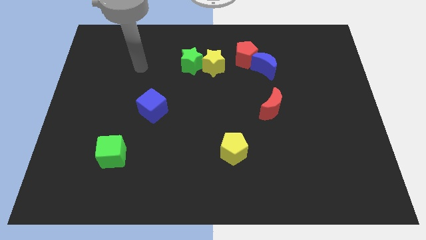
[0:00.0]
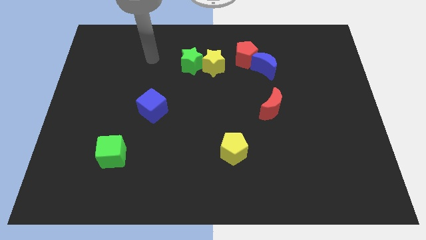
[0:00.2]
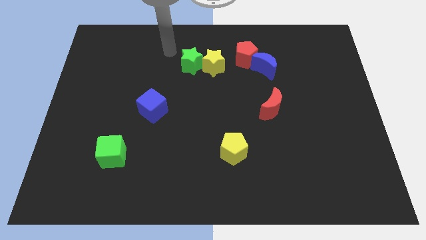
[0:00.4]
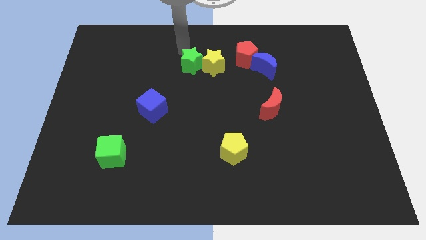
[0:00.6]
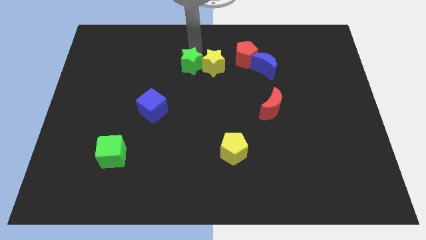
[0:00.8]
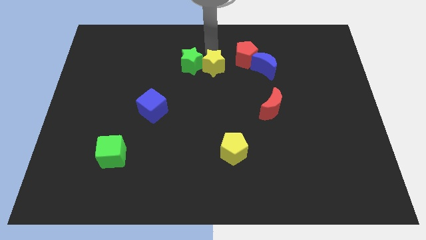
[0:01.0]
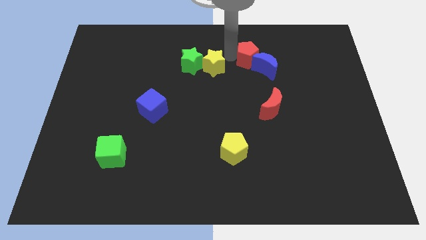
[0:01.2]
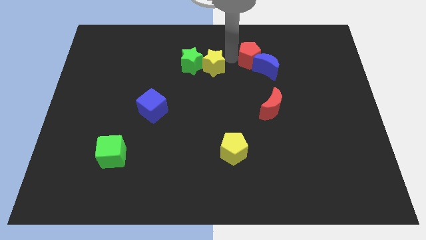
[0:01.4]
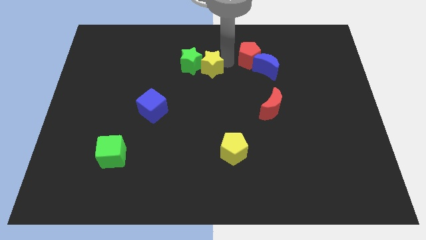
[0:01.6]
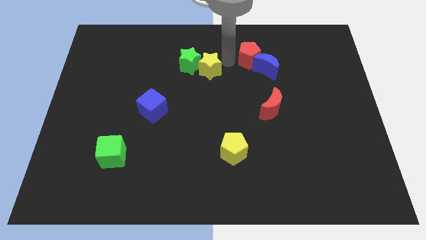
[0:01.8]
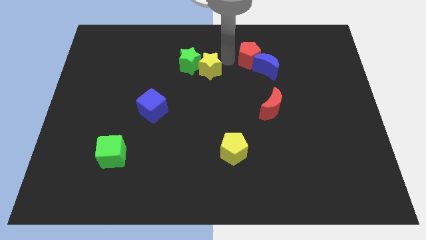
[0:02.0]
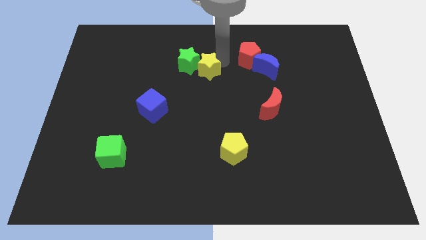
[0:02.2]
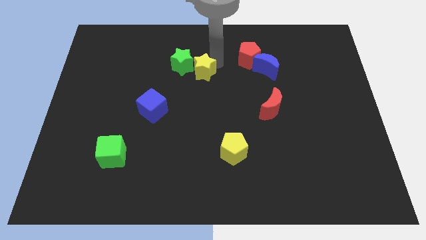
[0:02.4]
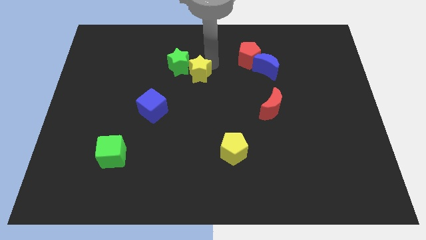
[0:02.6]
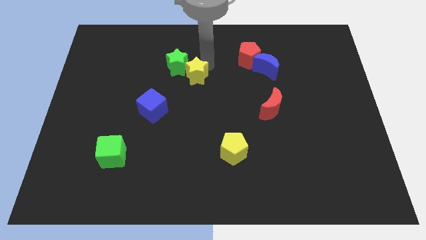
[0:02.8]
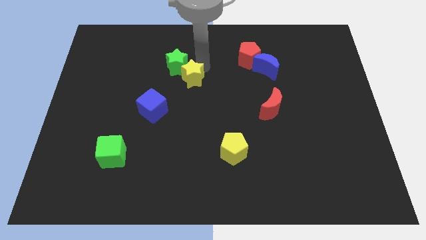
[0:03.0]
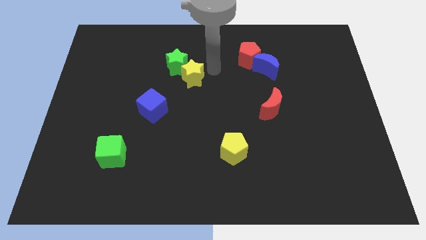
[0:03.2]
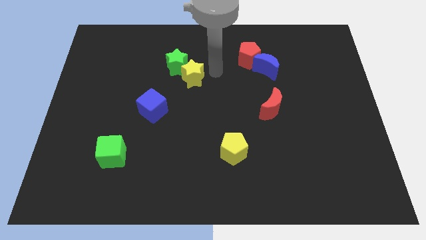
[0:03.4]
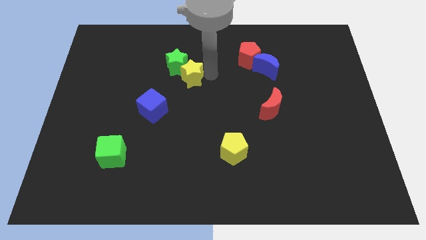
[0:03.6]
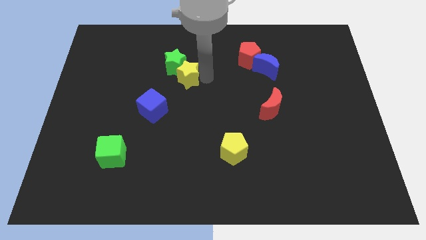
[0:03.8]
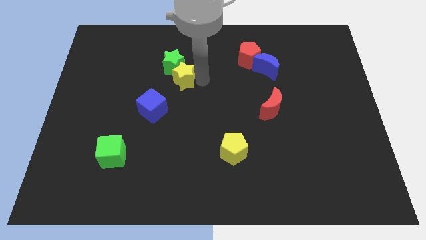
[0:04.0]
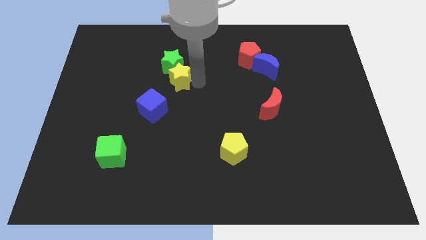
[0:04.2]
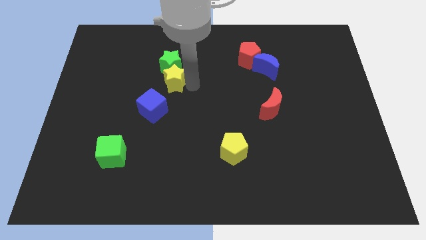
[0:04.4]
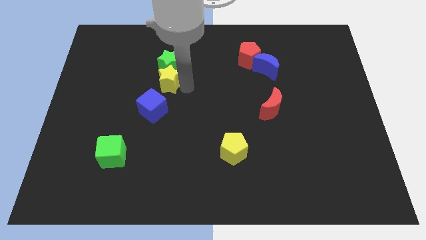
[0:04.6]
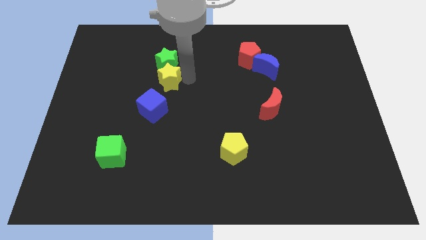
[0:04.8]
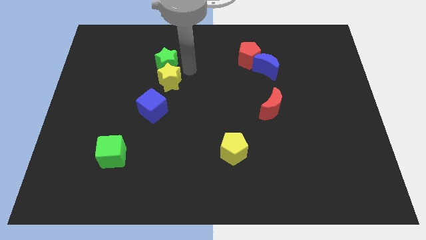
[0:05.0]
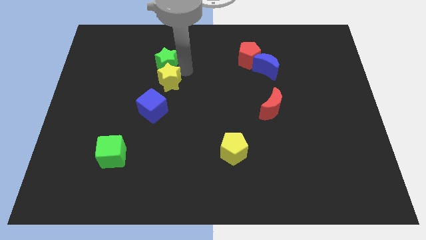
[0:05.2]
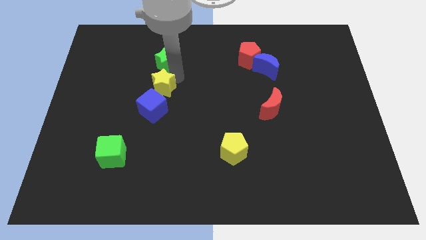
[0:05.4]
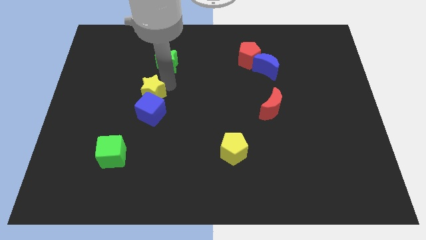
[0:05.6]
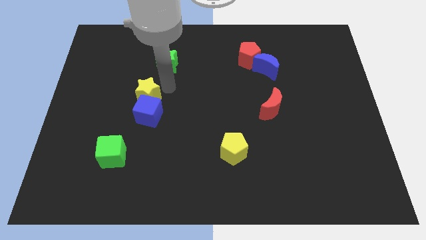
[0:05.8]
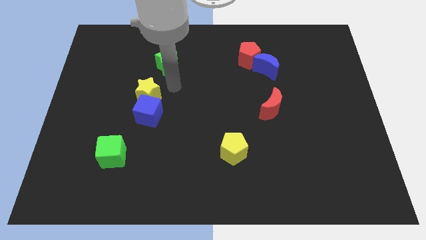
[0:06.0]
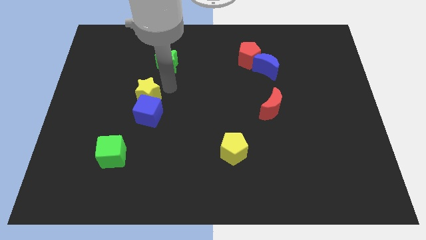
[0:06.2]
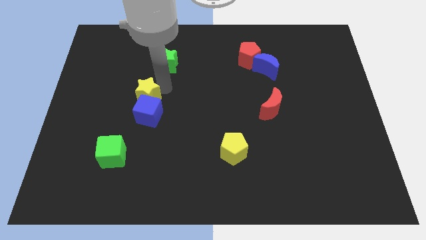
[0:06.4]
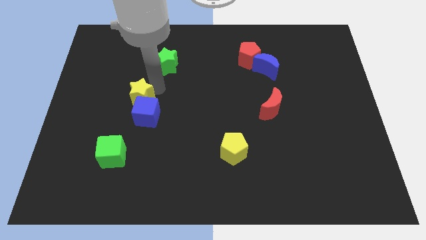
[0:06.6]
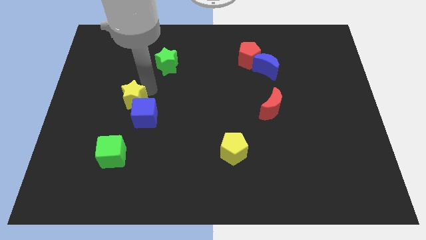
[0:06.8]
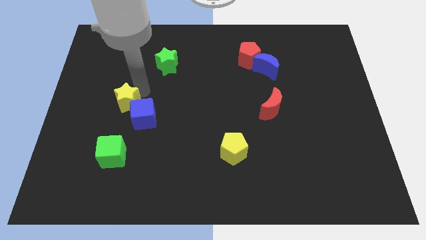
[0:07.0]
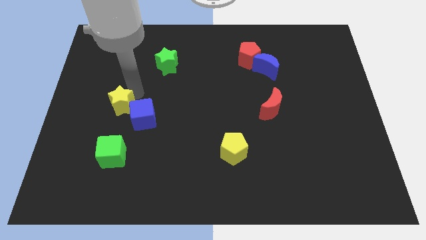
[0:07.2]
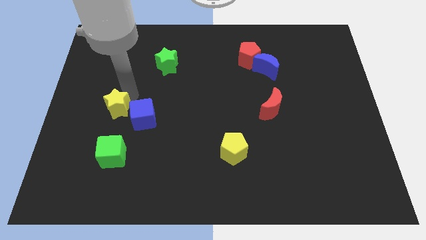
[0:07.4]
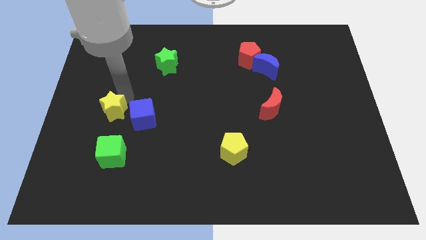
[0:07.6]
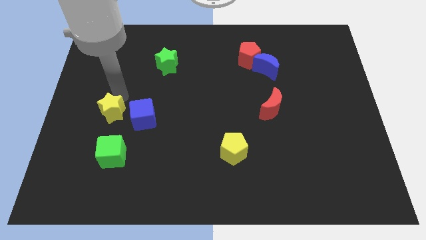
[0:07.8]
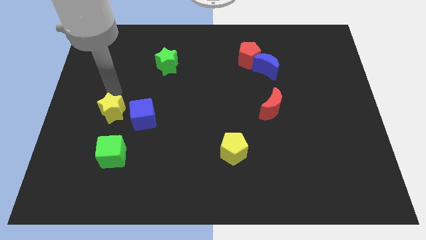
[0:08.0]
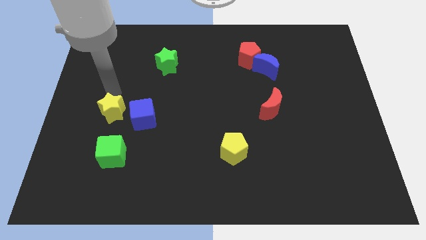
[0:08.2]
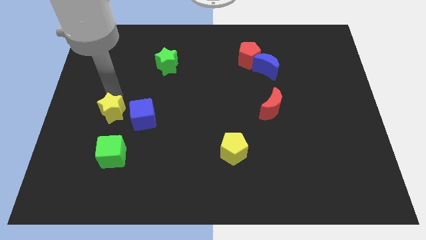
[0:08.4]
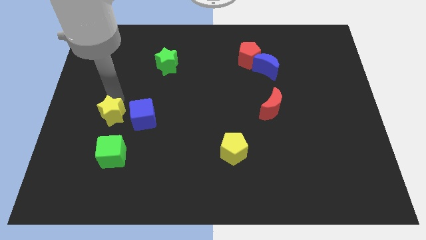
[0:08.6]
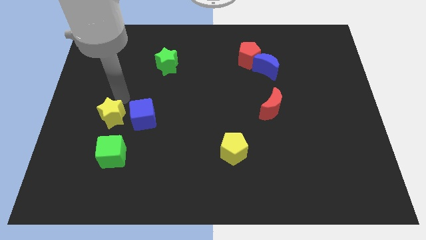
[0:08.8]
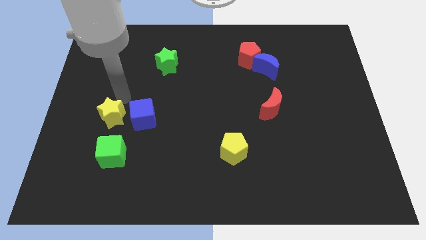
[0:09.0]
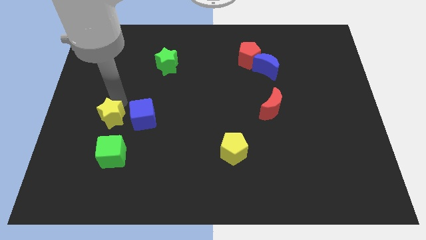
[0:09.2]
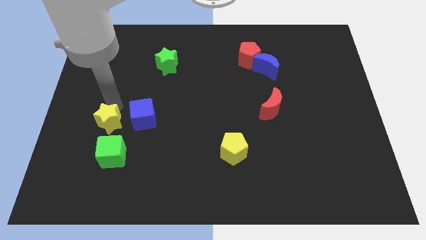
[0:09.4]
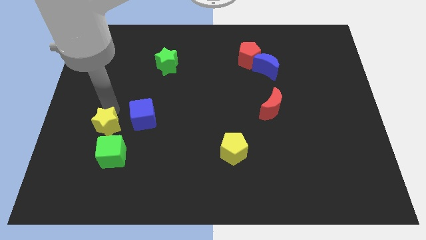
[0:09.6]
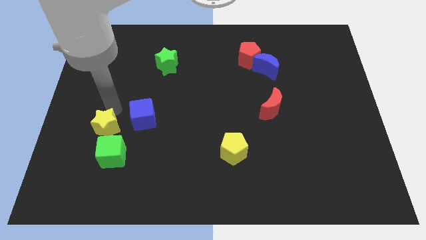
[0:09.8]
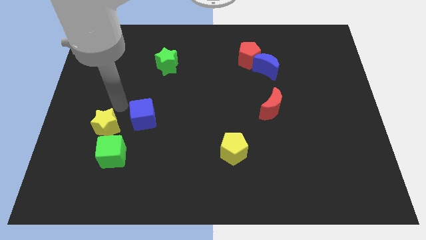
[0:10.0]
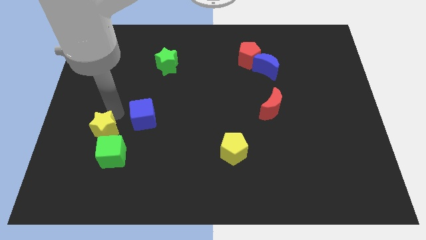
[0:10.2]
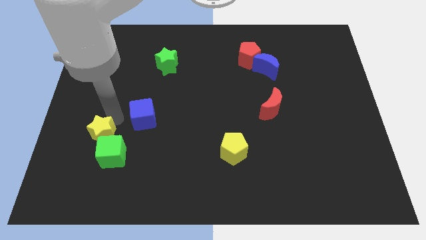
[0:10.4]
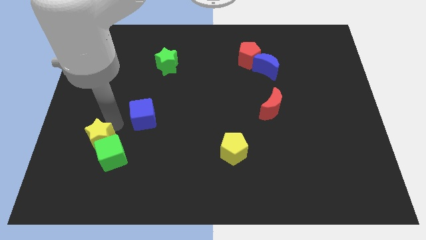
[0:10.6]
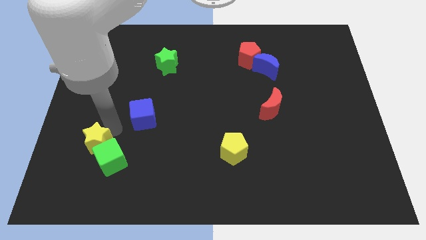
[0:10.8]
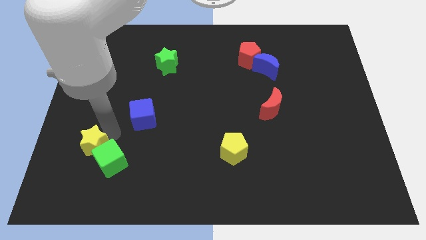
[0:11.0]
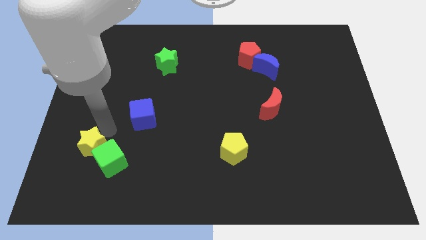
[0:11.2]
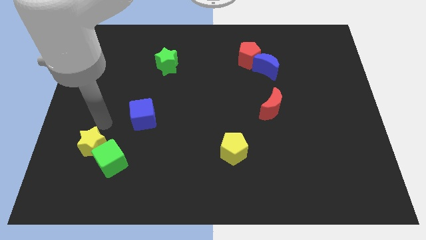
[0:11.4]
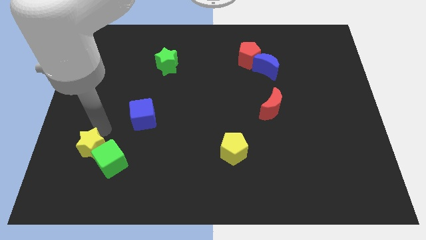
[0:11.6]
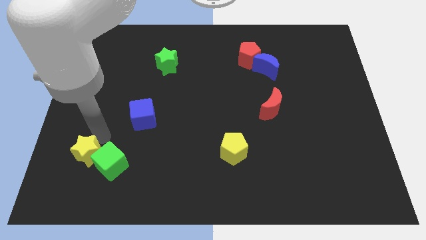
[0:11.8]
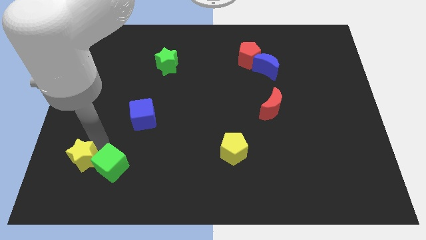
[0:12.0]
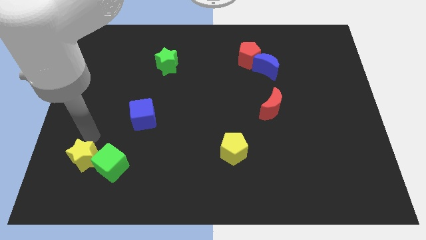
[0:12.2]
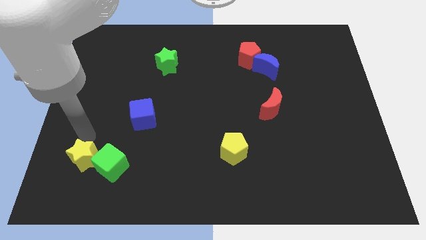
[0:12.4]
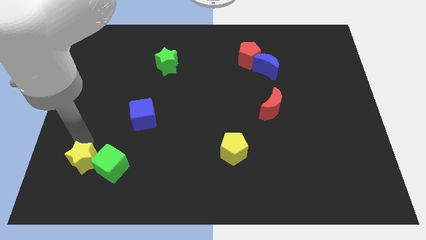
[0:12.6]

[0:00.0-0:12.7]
push the yellow star to the bottom left of the green cube

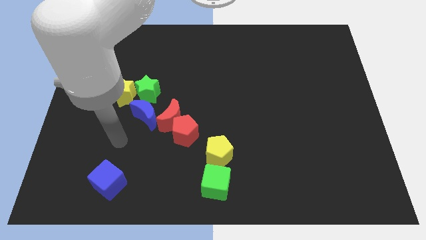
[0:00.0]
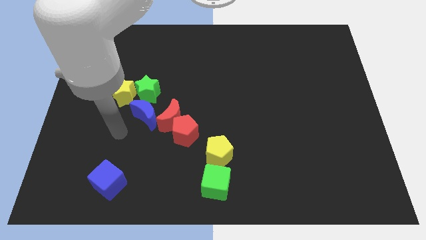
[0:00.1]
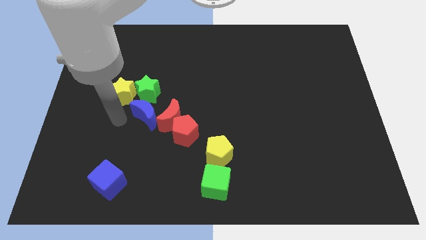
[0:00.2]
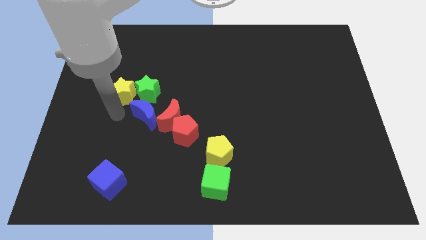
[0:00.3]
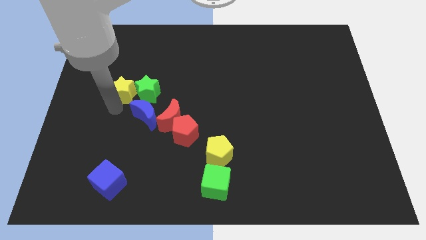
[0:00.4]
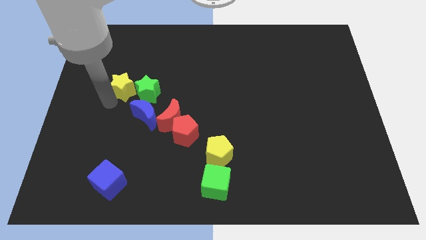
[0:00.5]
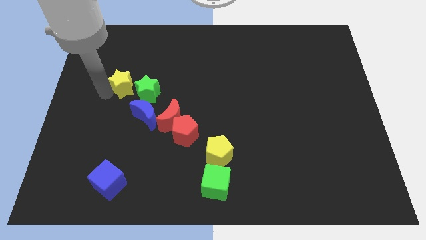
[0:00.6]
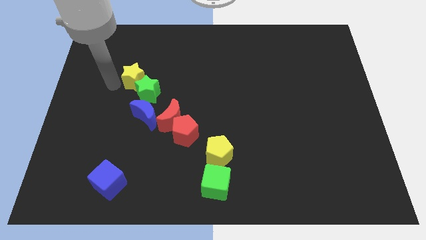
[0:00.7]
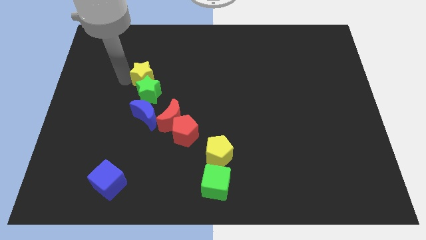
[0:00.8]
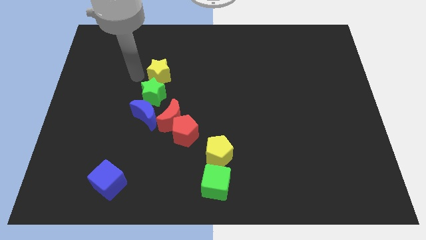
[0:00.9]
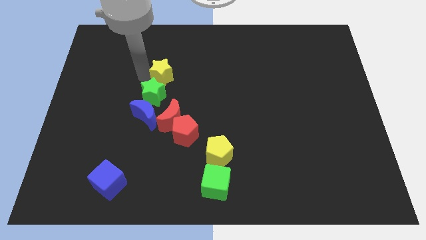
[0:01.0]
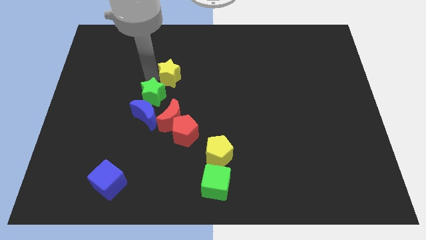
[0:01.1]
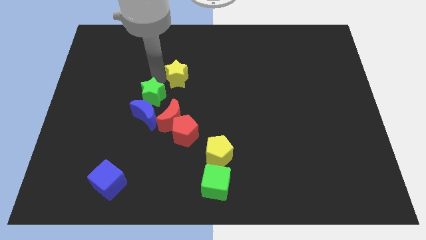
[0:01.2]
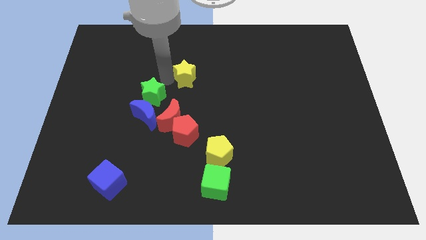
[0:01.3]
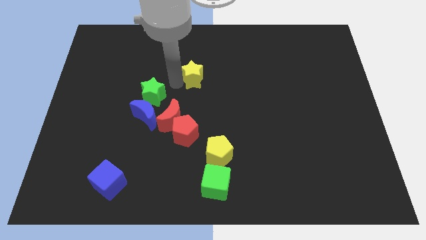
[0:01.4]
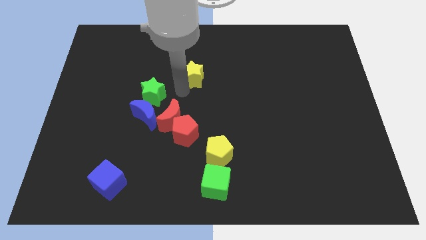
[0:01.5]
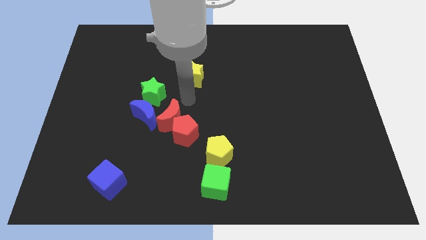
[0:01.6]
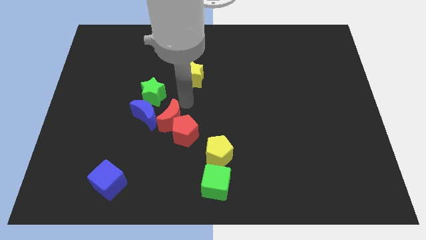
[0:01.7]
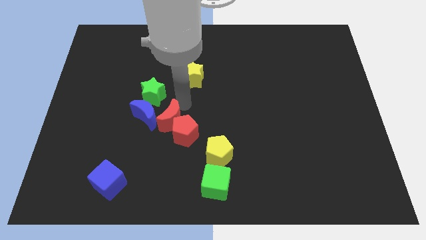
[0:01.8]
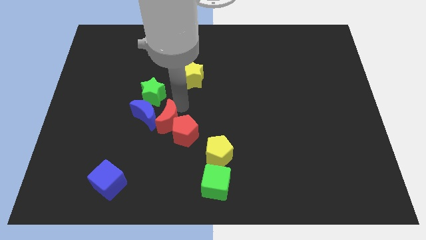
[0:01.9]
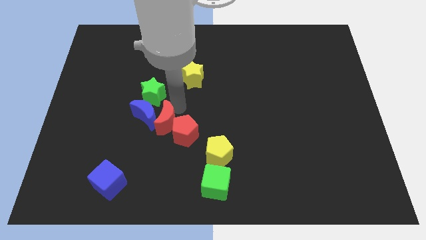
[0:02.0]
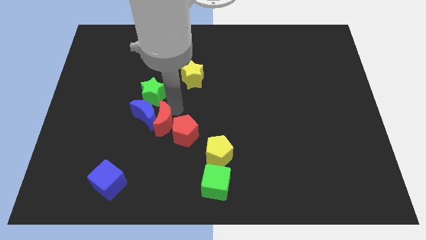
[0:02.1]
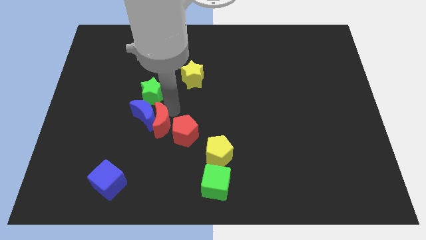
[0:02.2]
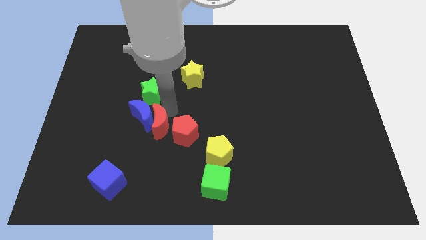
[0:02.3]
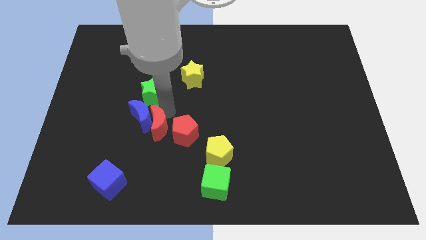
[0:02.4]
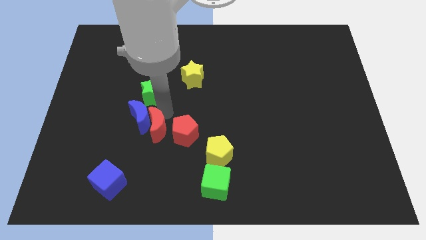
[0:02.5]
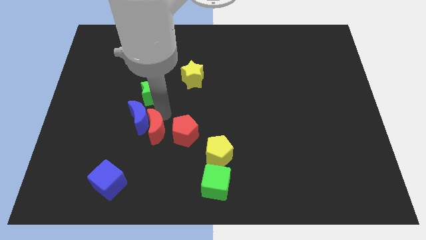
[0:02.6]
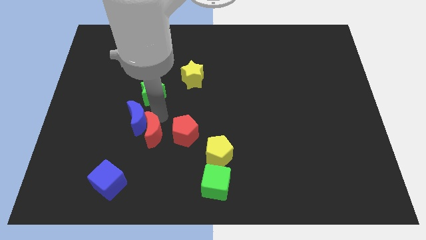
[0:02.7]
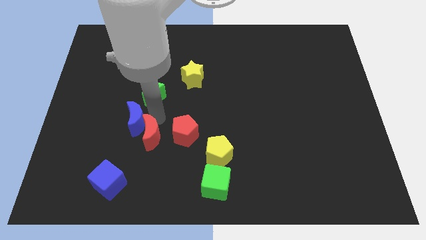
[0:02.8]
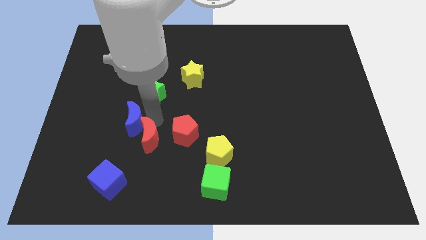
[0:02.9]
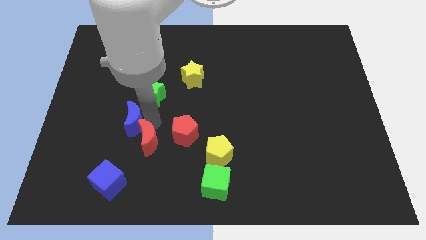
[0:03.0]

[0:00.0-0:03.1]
put the red moon diagonally up and to the right of the blue cube
